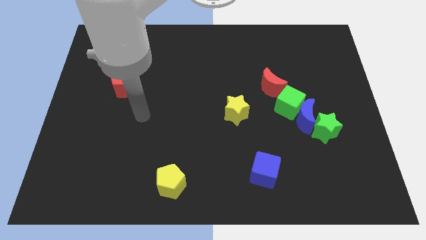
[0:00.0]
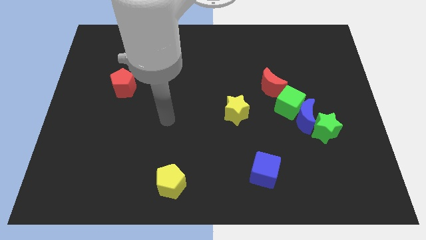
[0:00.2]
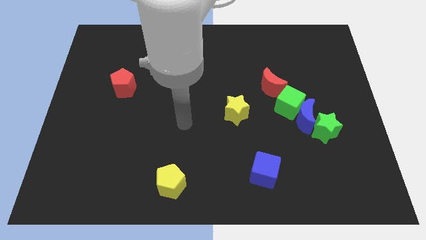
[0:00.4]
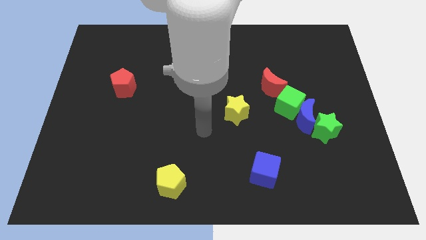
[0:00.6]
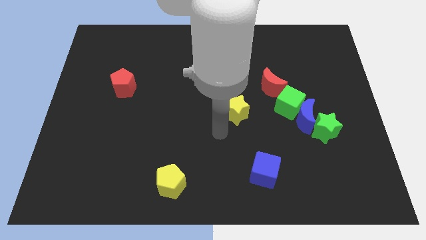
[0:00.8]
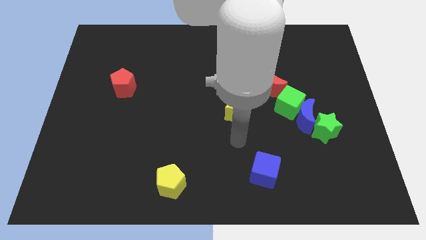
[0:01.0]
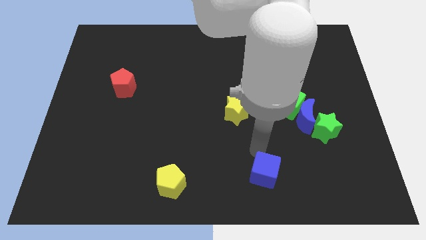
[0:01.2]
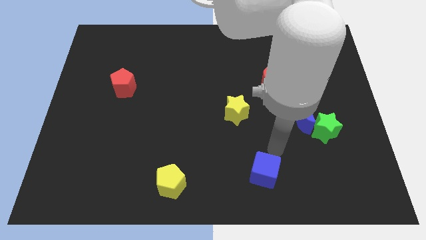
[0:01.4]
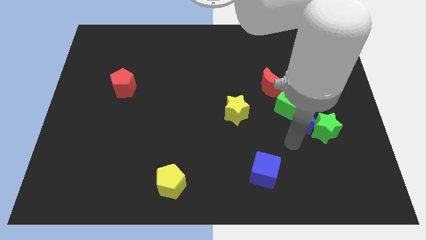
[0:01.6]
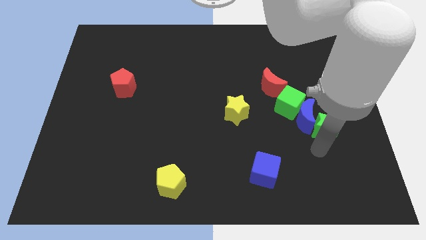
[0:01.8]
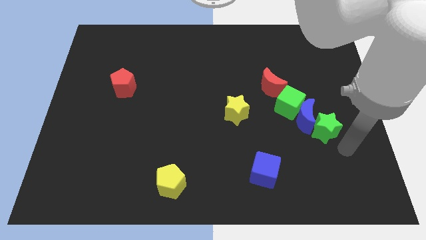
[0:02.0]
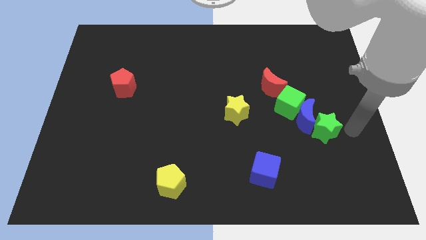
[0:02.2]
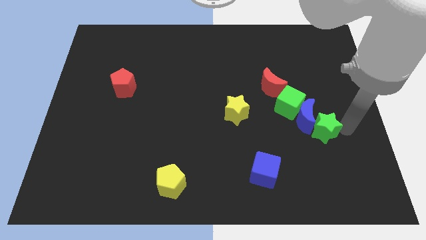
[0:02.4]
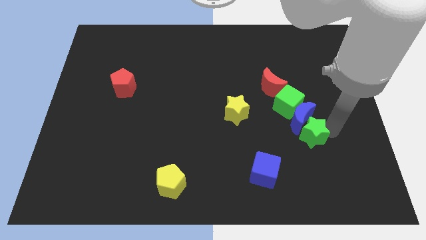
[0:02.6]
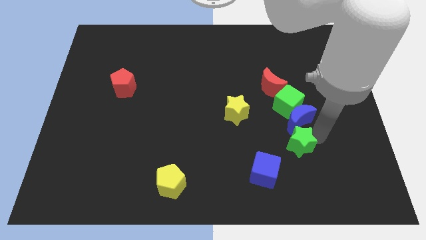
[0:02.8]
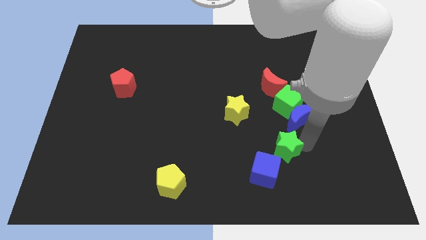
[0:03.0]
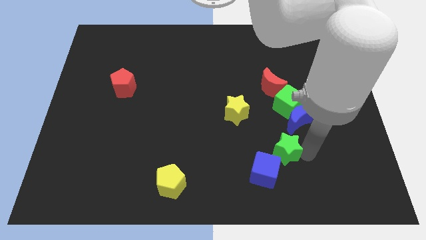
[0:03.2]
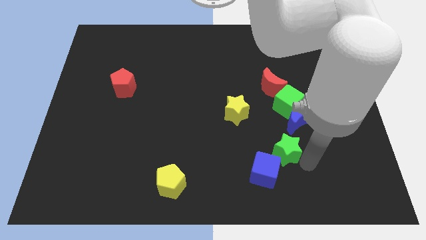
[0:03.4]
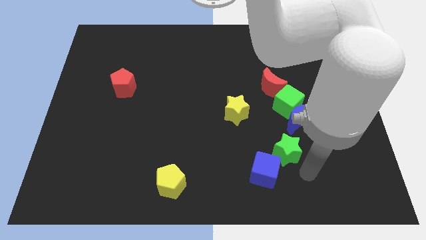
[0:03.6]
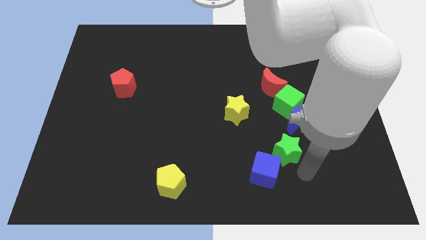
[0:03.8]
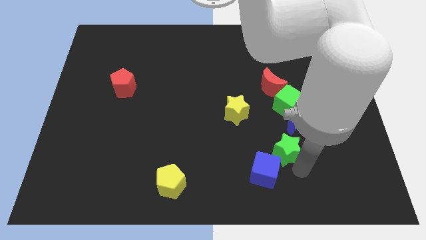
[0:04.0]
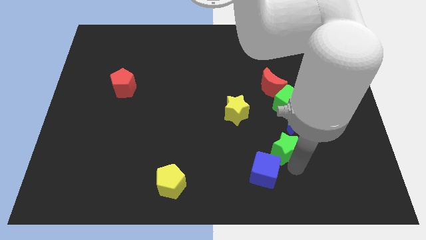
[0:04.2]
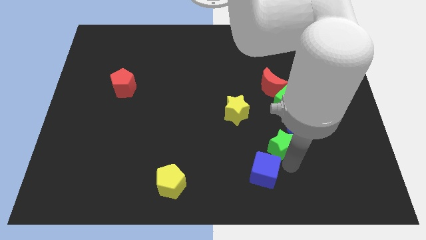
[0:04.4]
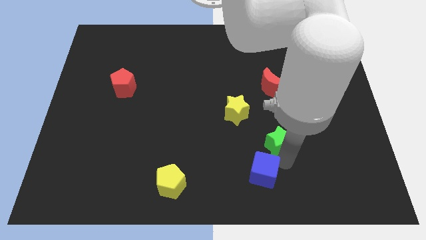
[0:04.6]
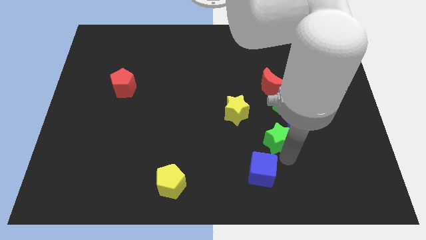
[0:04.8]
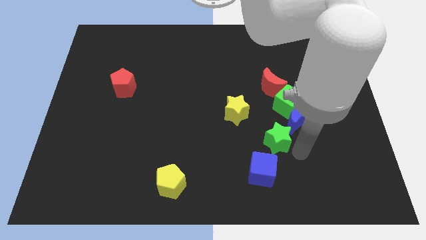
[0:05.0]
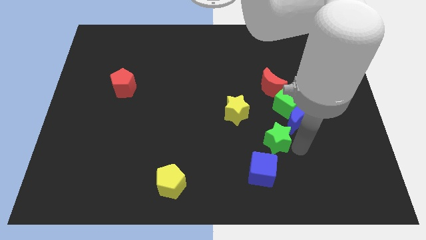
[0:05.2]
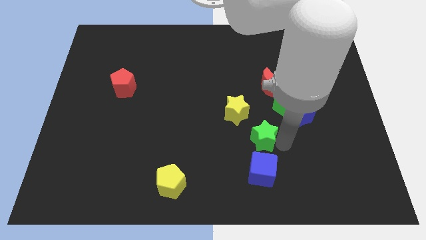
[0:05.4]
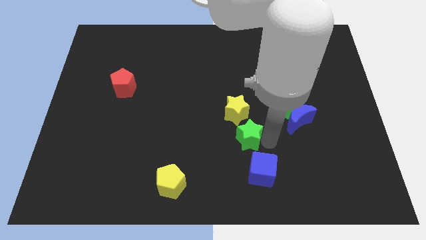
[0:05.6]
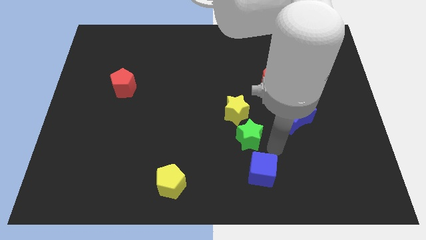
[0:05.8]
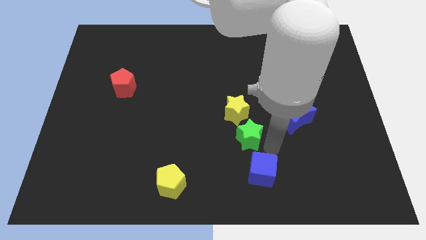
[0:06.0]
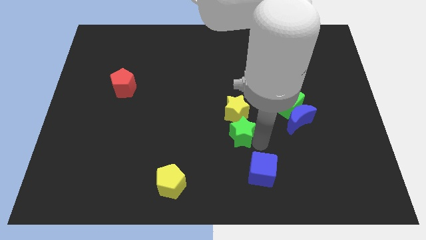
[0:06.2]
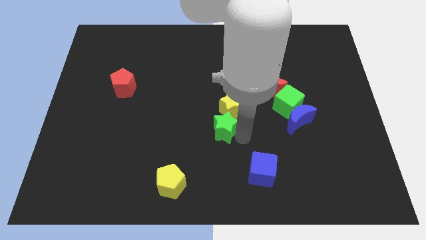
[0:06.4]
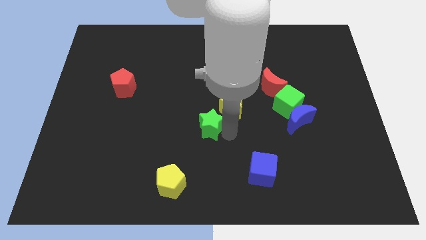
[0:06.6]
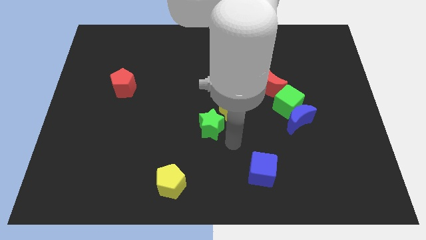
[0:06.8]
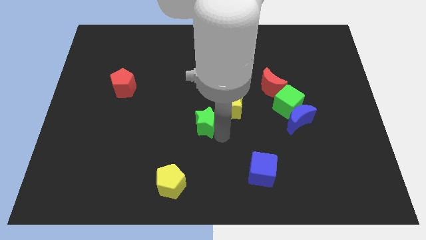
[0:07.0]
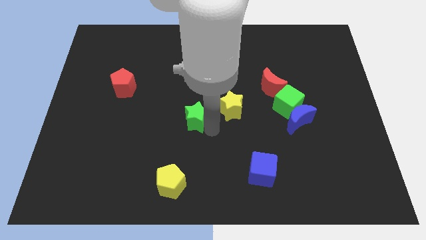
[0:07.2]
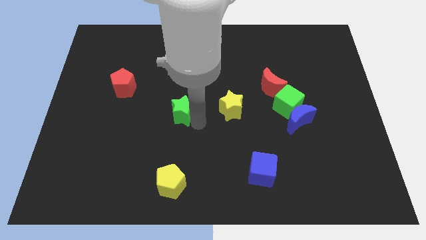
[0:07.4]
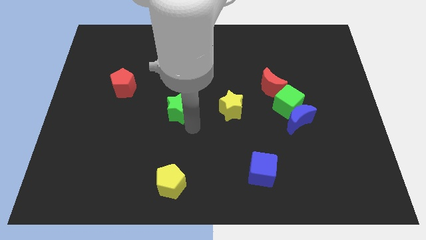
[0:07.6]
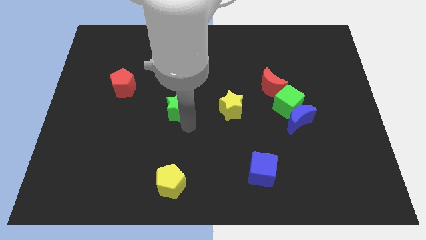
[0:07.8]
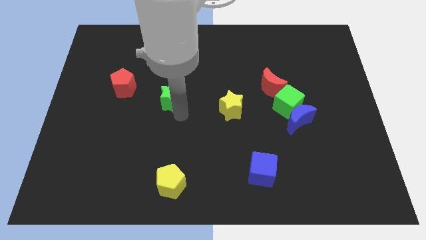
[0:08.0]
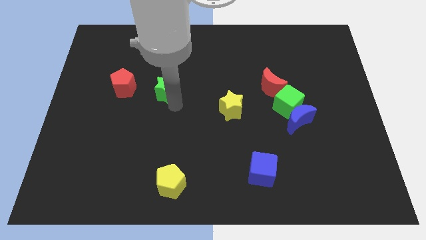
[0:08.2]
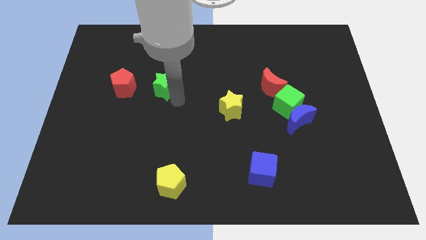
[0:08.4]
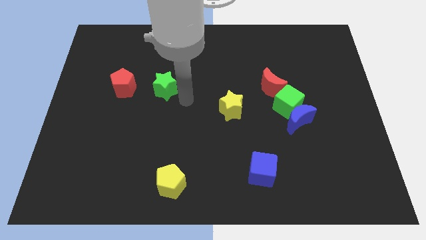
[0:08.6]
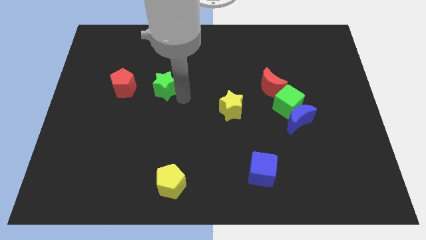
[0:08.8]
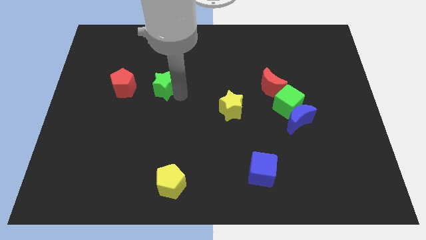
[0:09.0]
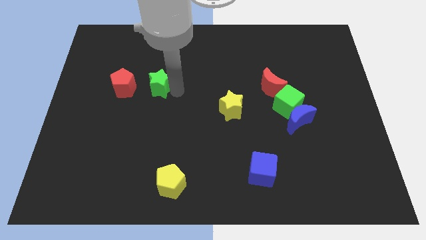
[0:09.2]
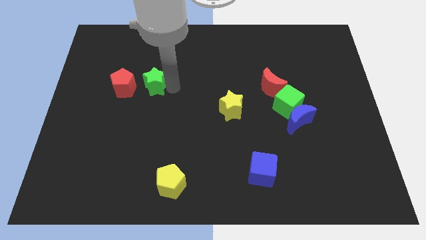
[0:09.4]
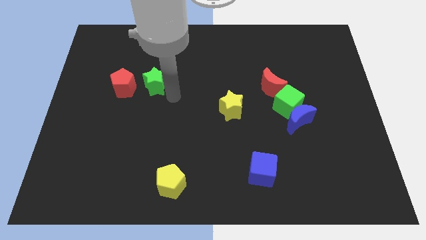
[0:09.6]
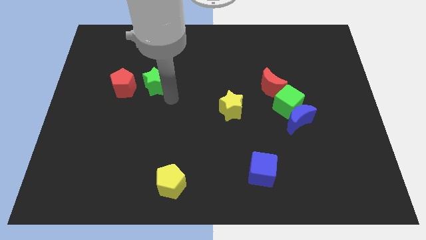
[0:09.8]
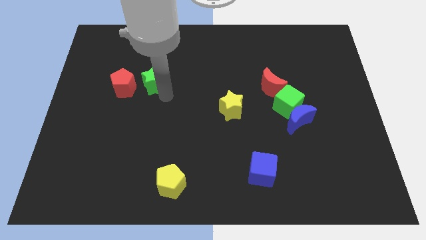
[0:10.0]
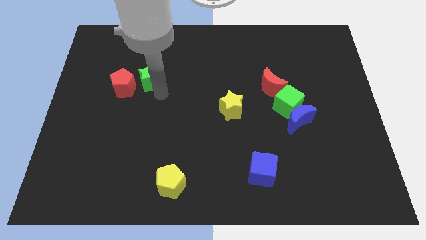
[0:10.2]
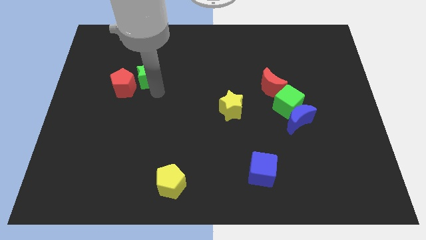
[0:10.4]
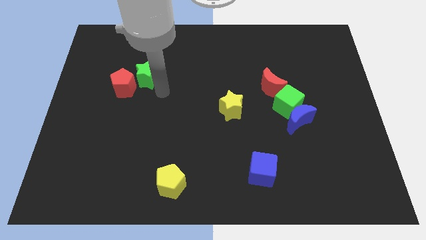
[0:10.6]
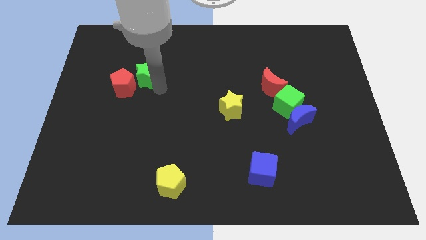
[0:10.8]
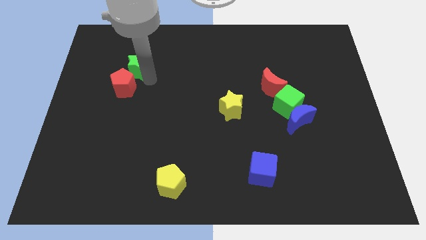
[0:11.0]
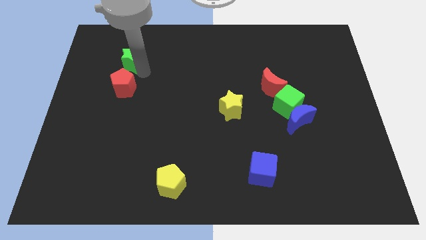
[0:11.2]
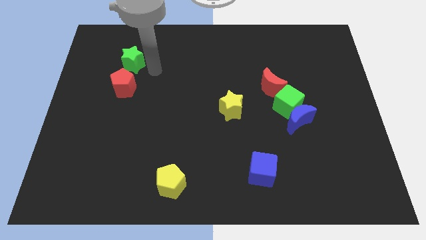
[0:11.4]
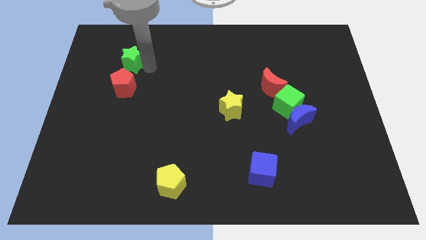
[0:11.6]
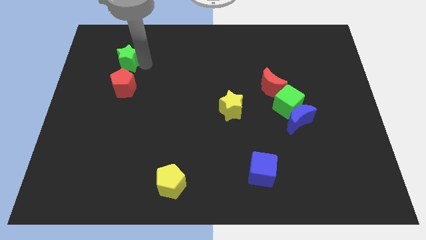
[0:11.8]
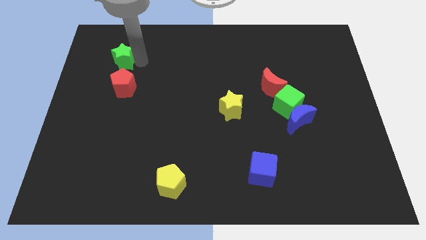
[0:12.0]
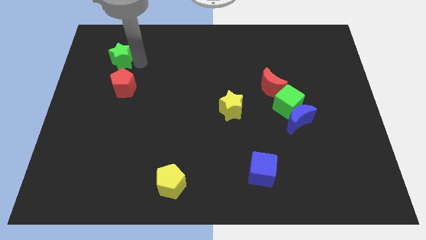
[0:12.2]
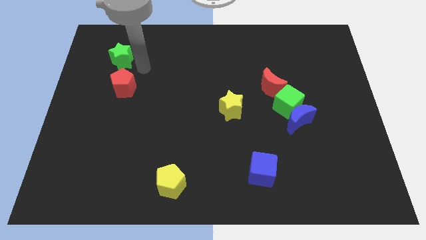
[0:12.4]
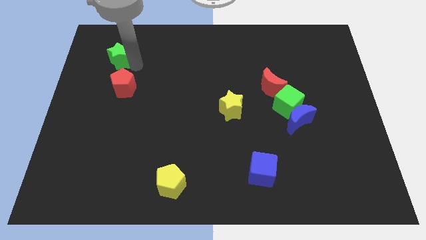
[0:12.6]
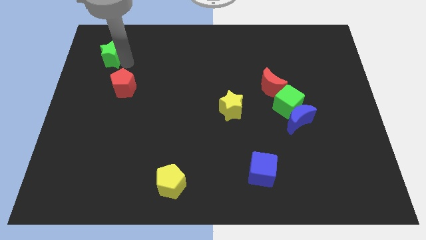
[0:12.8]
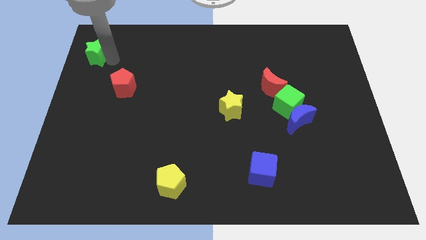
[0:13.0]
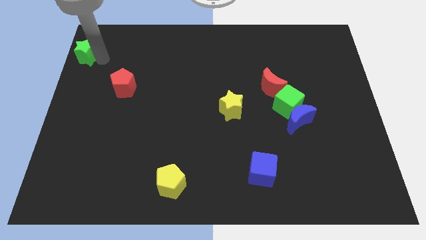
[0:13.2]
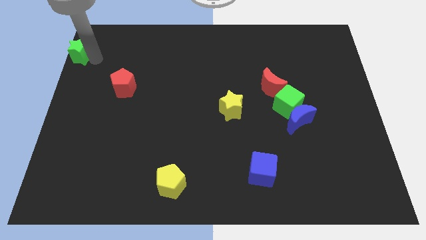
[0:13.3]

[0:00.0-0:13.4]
push the green star to the top left of the board
